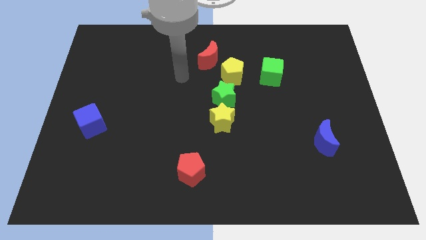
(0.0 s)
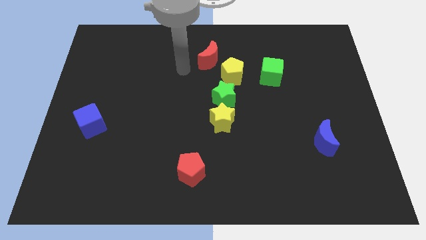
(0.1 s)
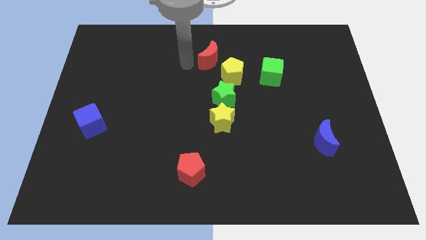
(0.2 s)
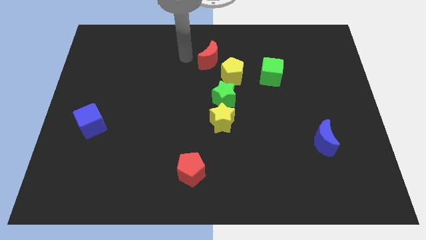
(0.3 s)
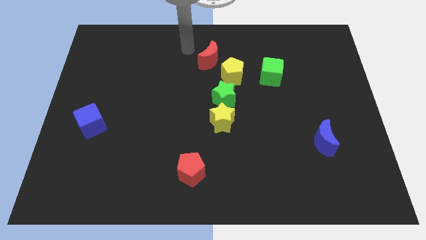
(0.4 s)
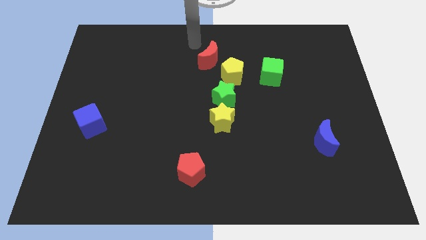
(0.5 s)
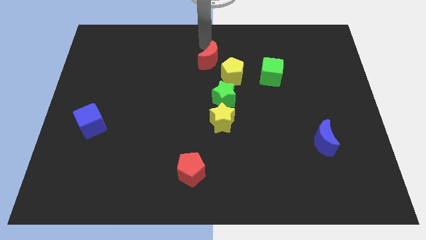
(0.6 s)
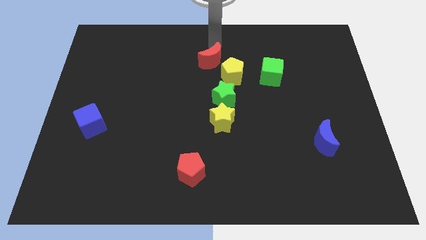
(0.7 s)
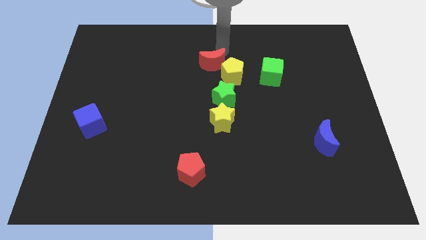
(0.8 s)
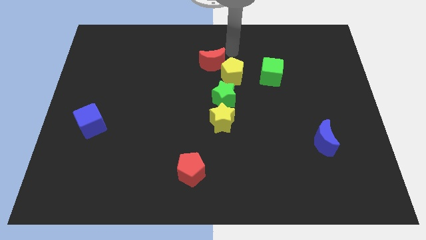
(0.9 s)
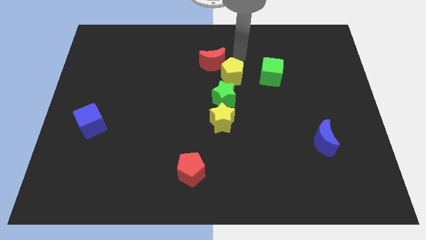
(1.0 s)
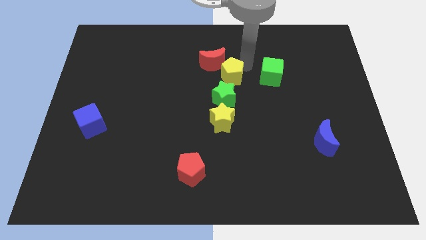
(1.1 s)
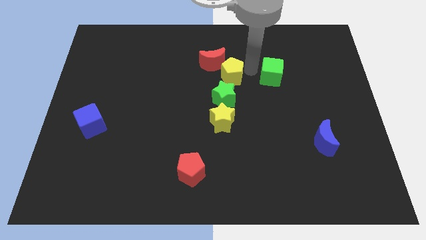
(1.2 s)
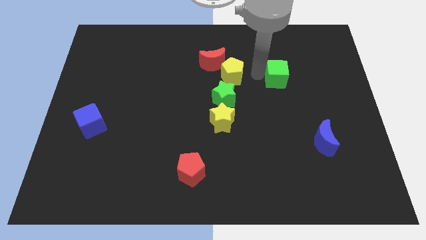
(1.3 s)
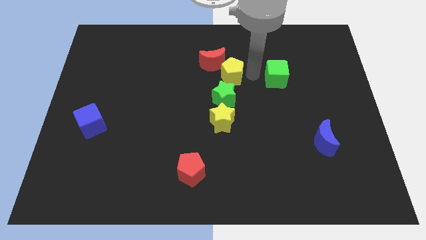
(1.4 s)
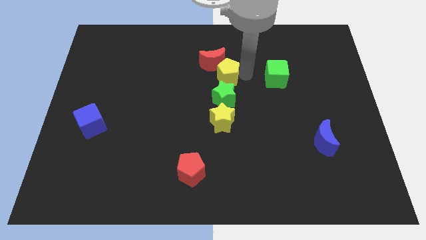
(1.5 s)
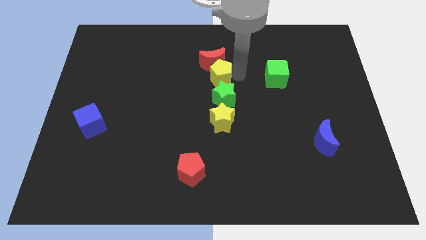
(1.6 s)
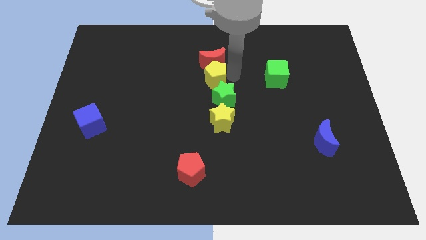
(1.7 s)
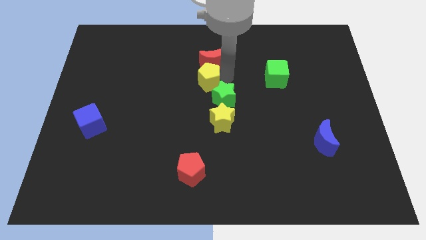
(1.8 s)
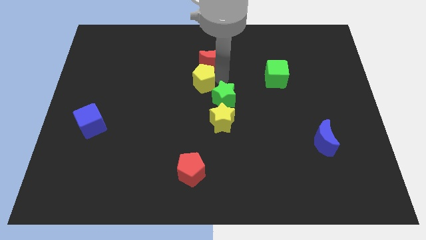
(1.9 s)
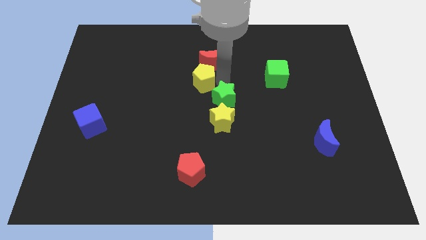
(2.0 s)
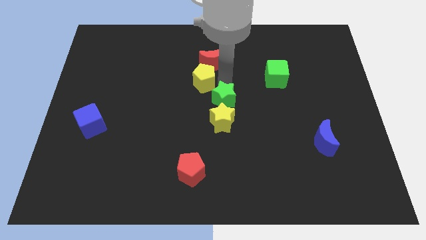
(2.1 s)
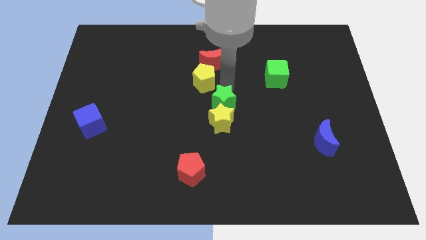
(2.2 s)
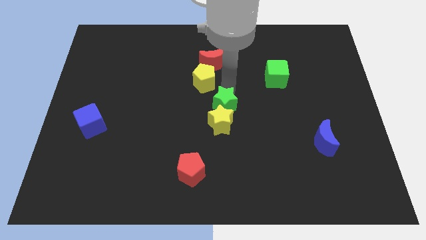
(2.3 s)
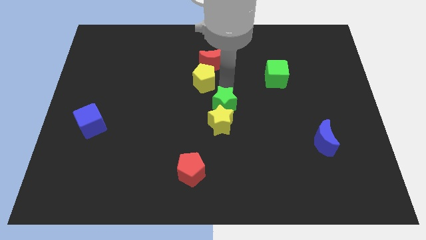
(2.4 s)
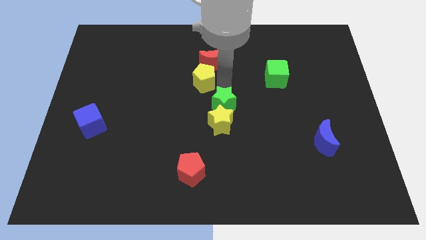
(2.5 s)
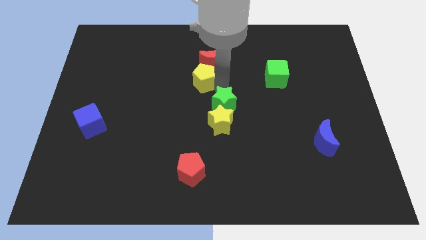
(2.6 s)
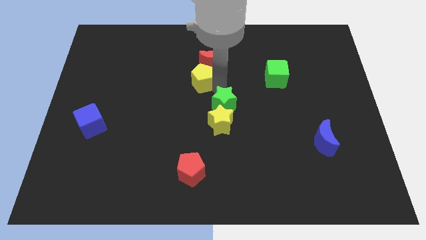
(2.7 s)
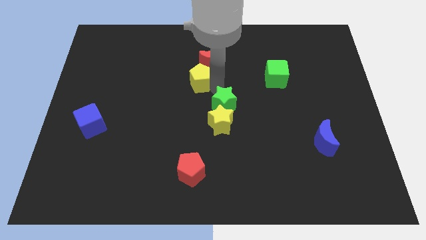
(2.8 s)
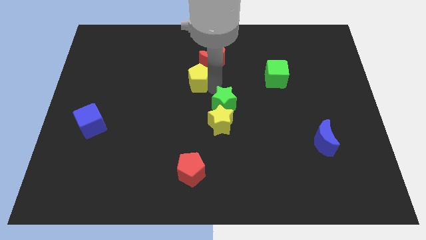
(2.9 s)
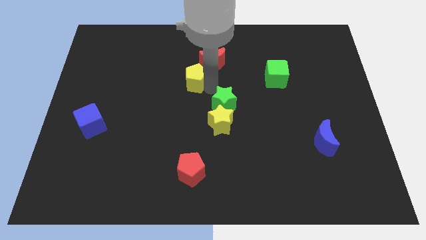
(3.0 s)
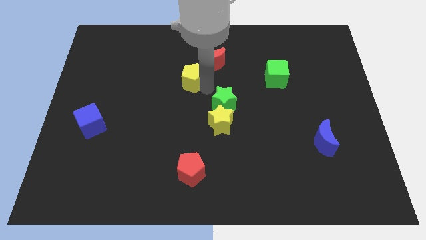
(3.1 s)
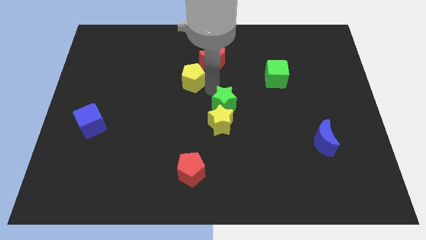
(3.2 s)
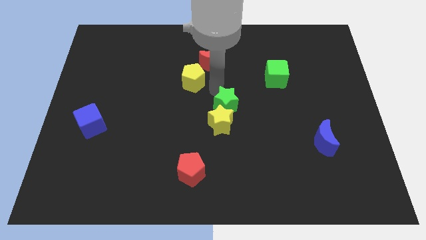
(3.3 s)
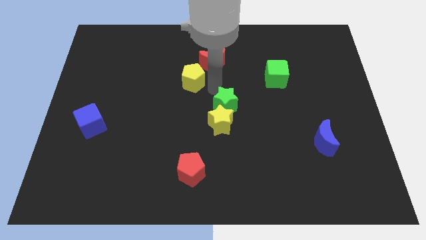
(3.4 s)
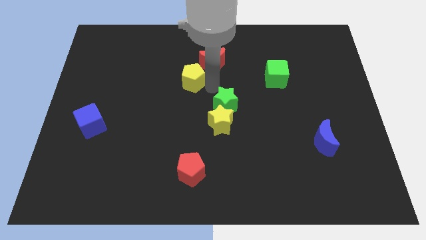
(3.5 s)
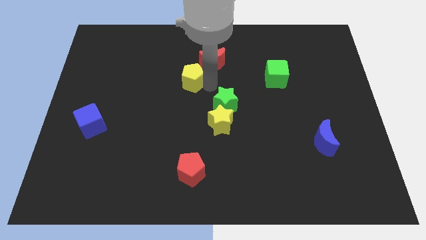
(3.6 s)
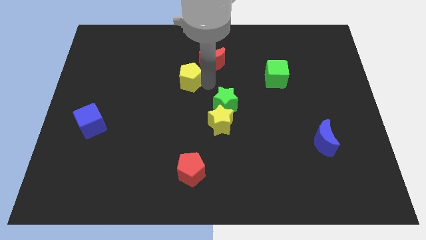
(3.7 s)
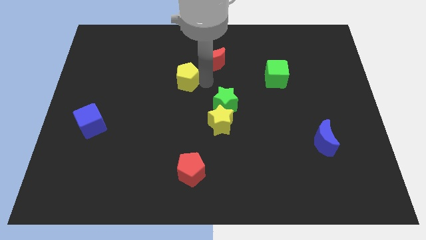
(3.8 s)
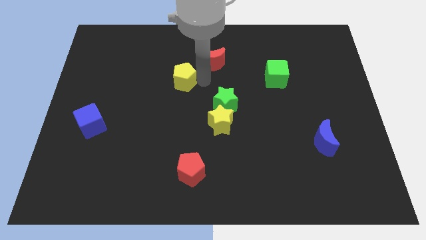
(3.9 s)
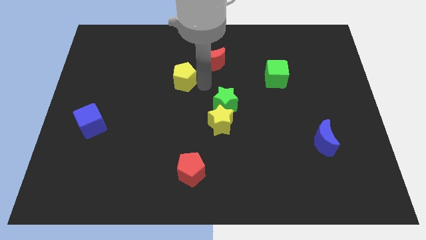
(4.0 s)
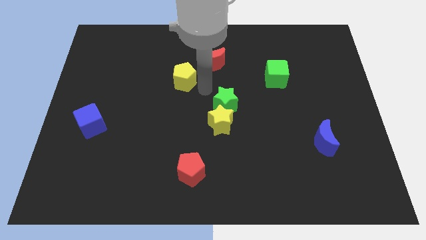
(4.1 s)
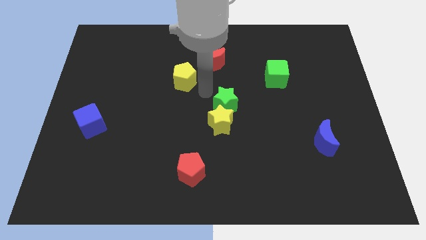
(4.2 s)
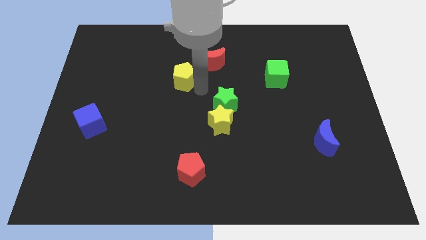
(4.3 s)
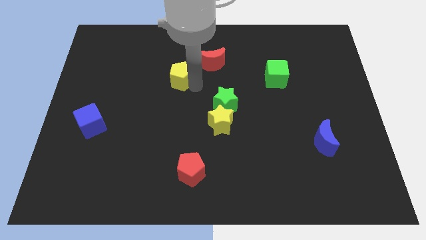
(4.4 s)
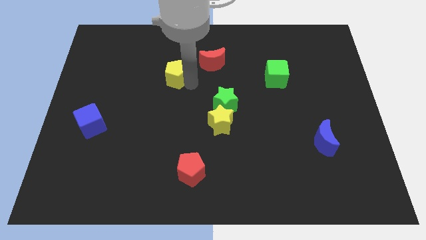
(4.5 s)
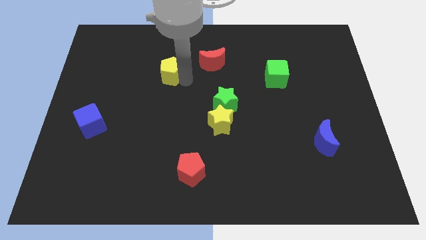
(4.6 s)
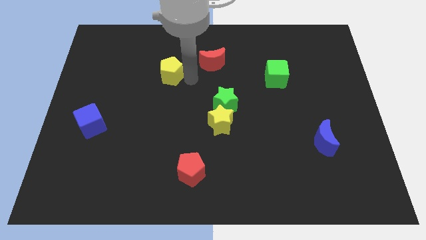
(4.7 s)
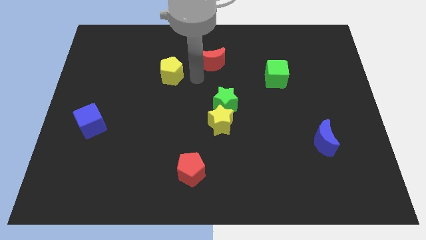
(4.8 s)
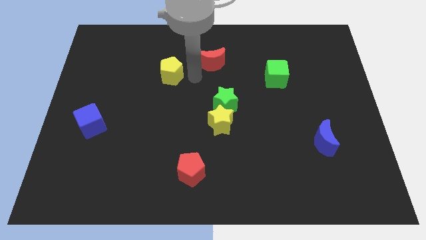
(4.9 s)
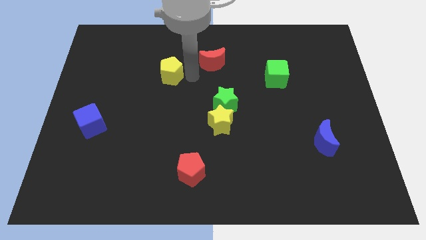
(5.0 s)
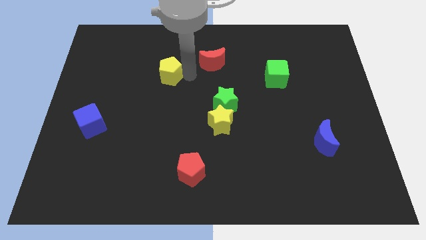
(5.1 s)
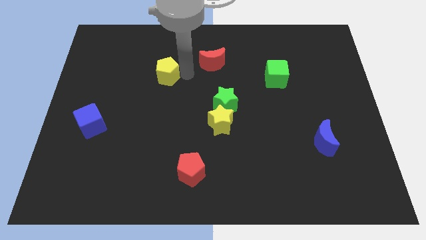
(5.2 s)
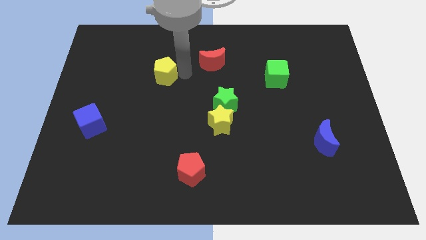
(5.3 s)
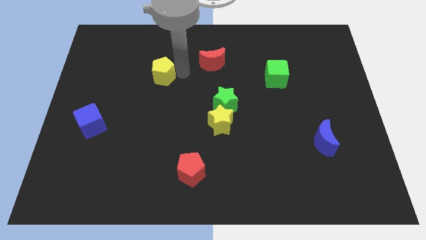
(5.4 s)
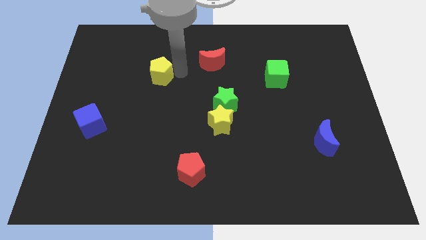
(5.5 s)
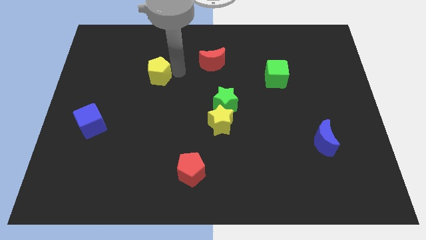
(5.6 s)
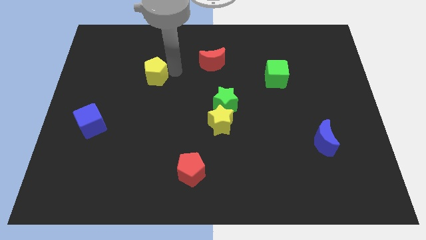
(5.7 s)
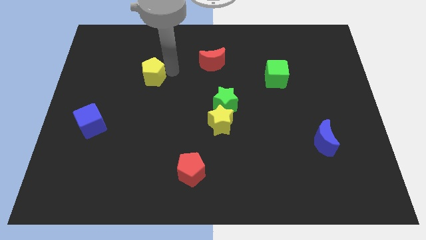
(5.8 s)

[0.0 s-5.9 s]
move the yellow pentagon to the left

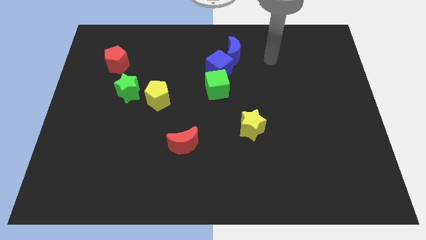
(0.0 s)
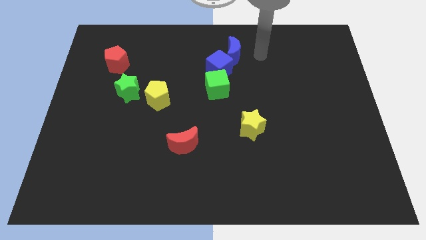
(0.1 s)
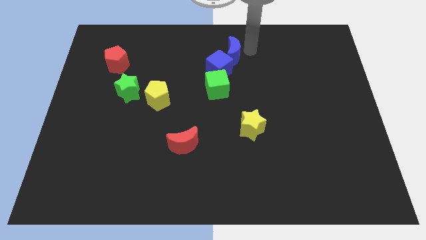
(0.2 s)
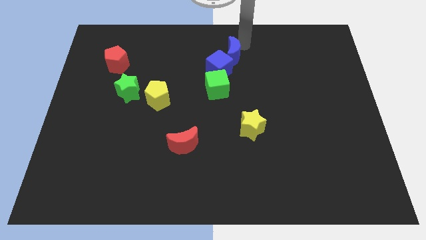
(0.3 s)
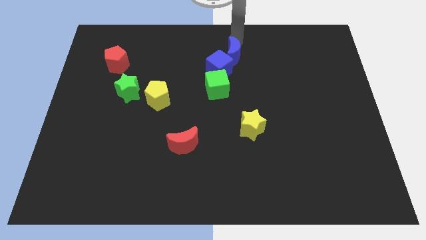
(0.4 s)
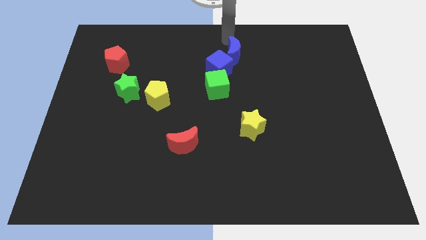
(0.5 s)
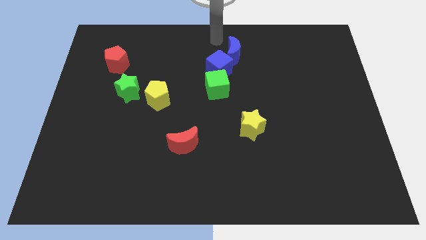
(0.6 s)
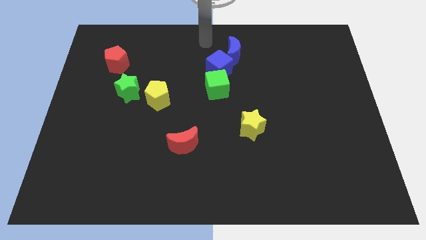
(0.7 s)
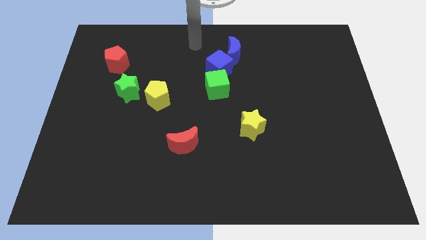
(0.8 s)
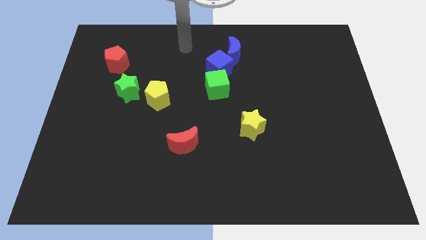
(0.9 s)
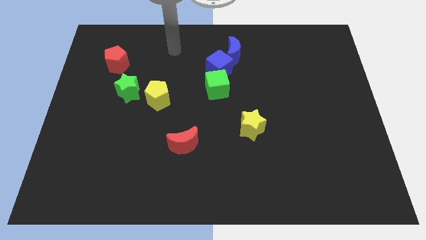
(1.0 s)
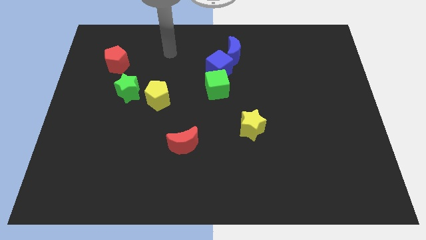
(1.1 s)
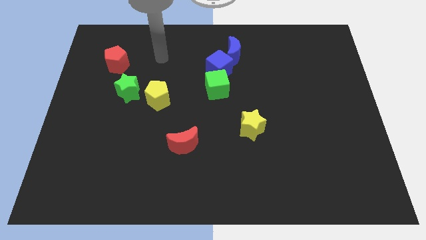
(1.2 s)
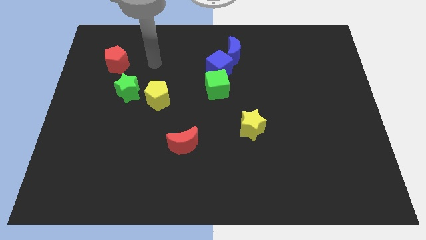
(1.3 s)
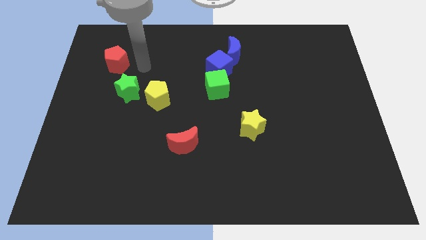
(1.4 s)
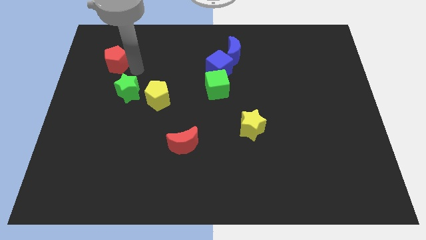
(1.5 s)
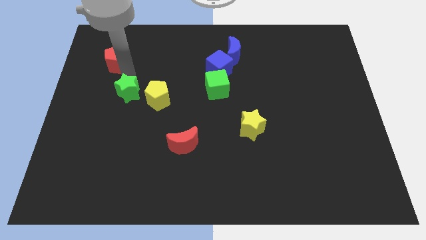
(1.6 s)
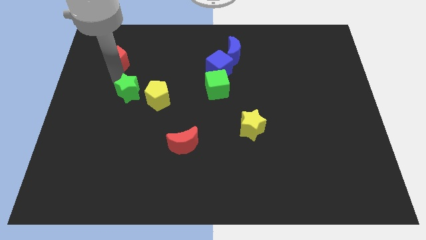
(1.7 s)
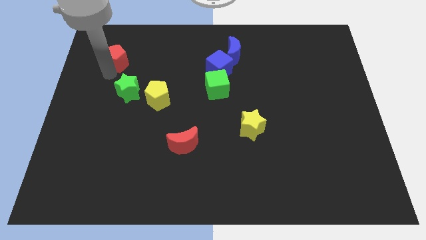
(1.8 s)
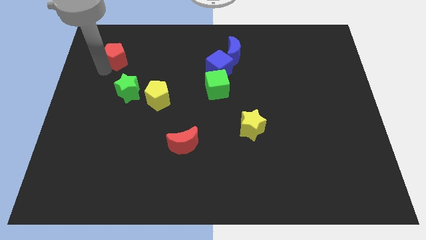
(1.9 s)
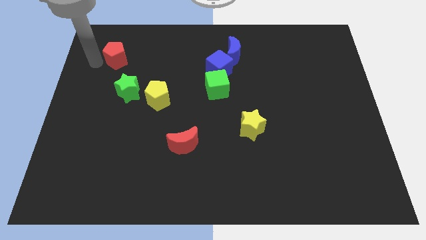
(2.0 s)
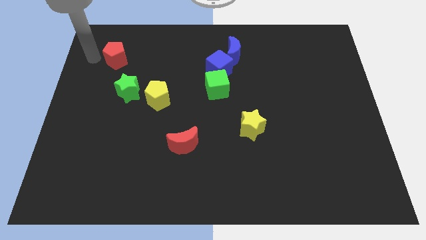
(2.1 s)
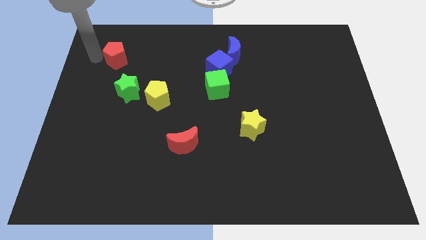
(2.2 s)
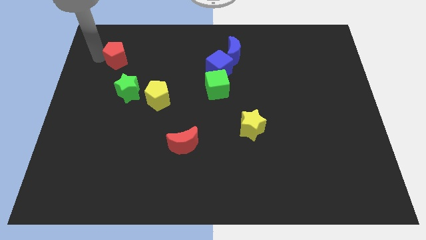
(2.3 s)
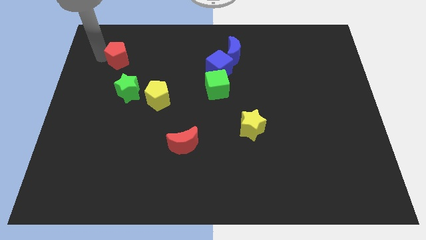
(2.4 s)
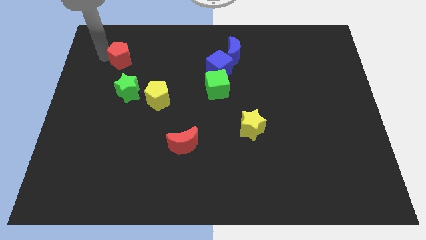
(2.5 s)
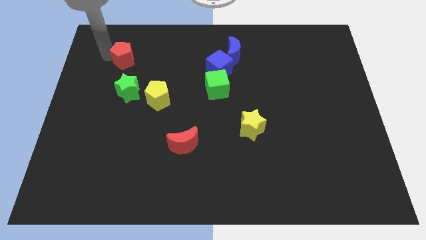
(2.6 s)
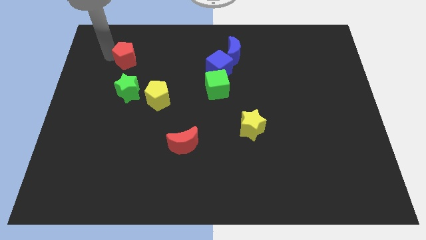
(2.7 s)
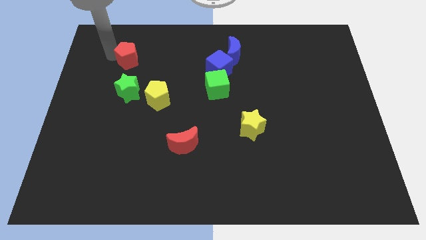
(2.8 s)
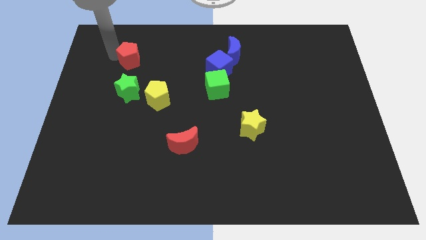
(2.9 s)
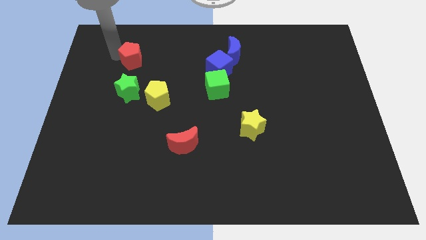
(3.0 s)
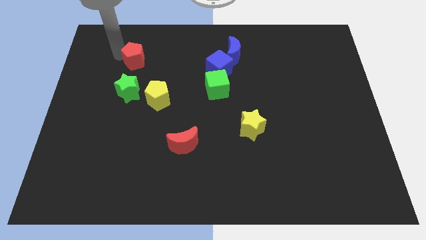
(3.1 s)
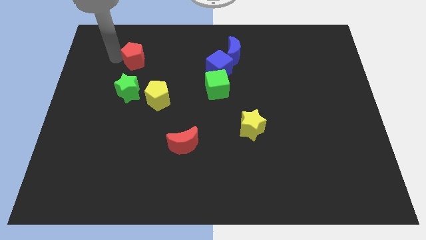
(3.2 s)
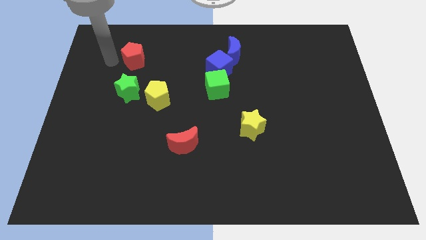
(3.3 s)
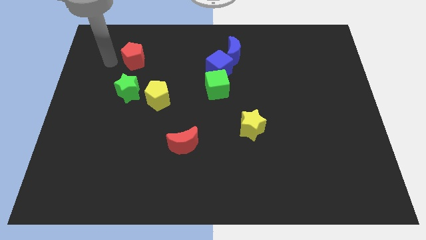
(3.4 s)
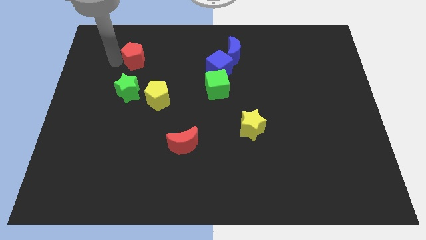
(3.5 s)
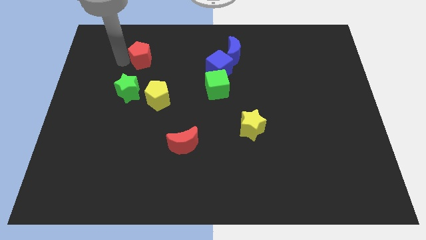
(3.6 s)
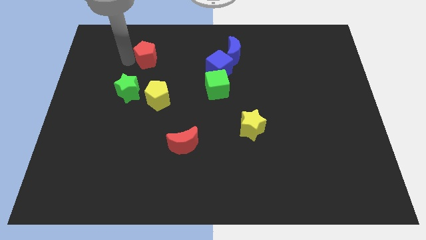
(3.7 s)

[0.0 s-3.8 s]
push the red pentagon to the right a little bit
